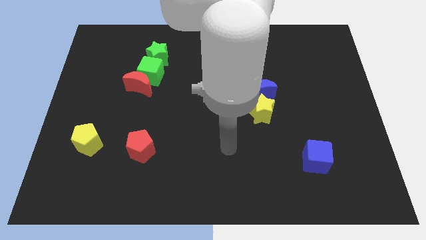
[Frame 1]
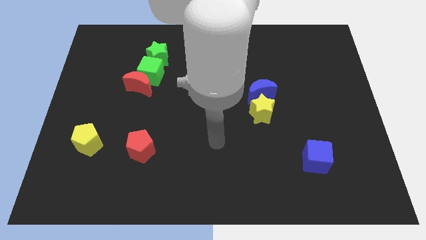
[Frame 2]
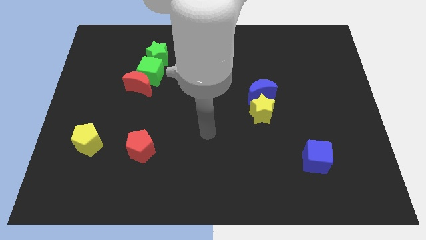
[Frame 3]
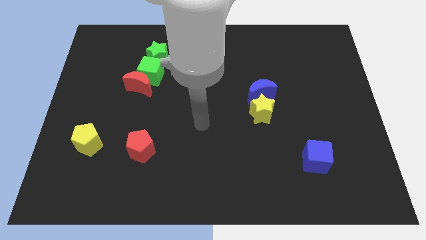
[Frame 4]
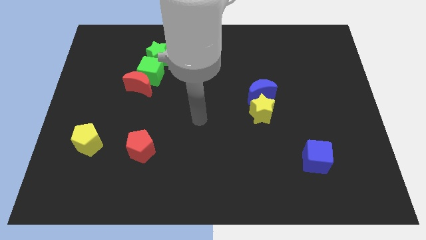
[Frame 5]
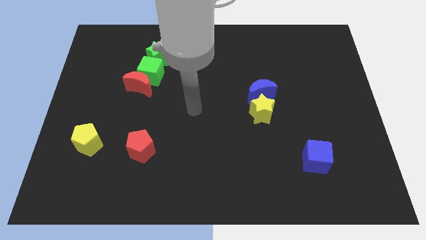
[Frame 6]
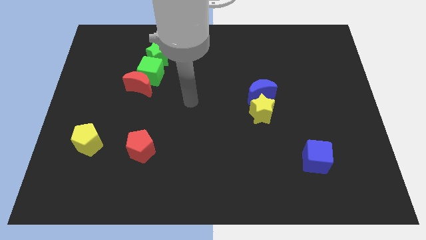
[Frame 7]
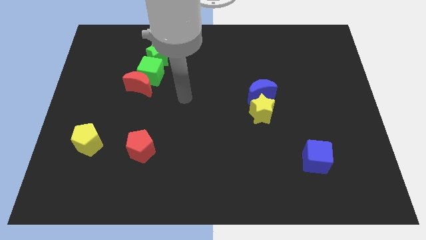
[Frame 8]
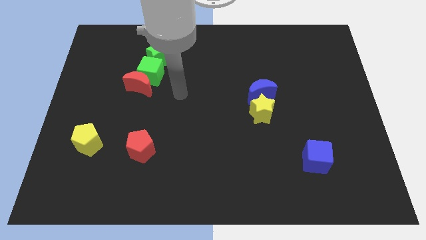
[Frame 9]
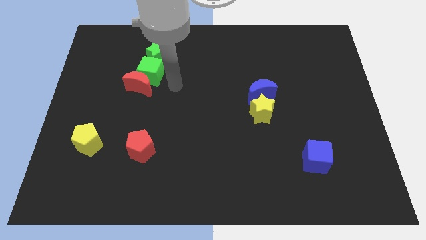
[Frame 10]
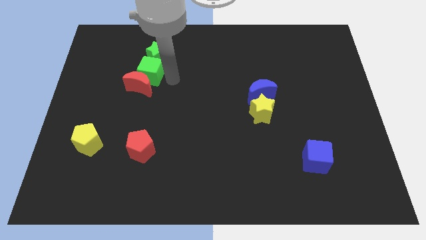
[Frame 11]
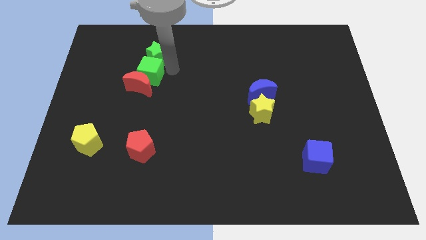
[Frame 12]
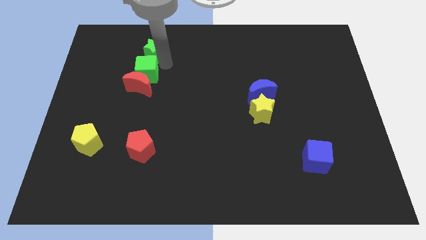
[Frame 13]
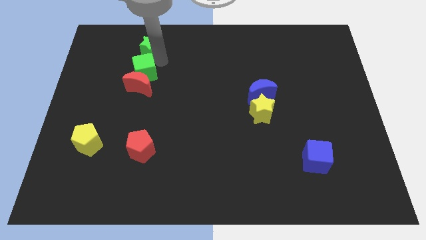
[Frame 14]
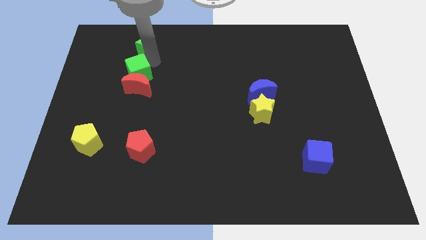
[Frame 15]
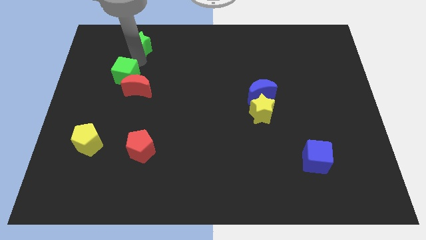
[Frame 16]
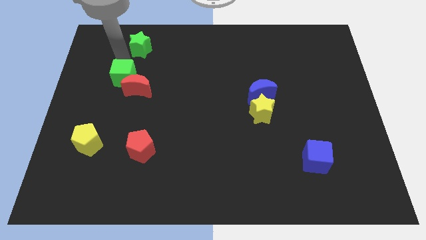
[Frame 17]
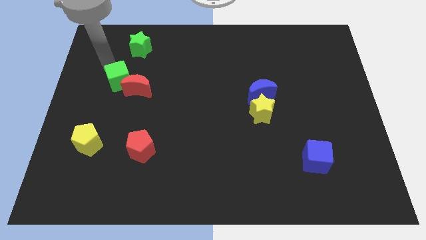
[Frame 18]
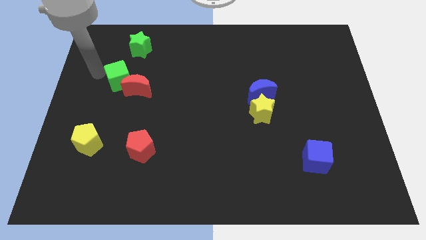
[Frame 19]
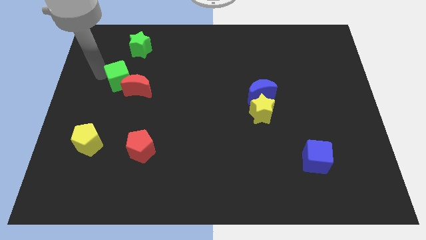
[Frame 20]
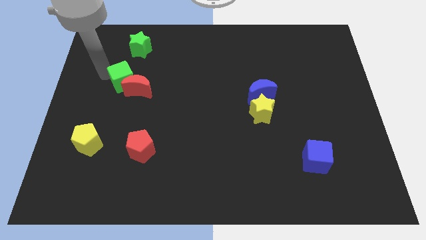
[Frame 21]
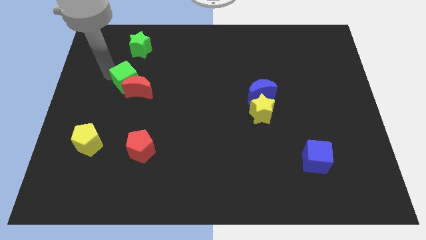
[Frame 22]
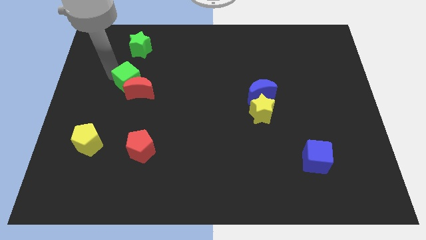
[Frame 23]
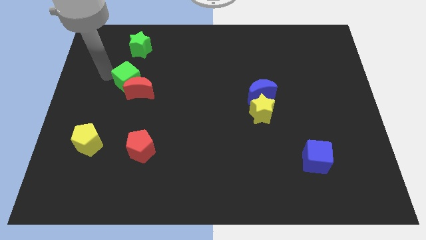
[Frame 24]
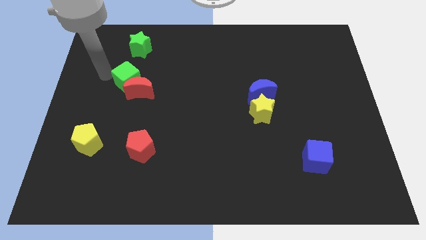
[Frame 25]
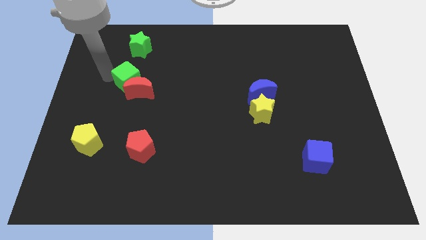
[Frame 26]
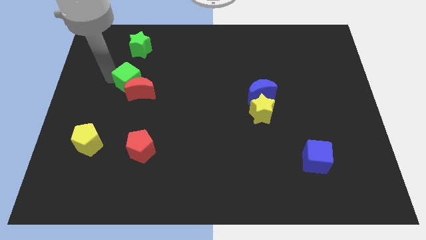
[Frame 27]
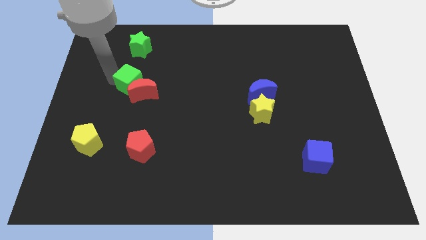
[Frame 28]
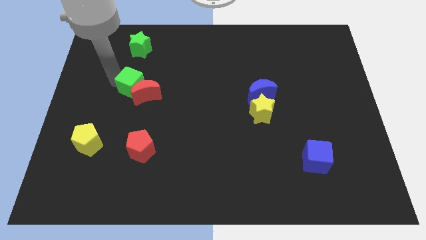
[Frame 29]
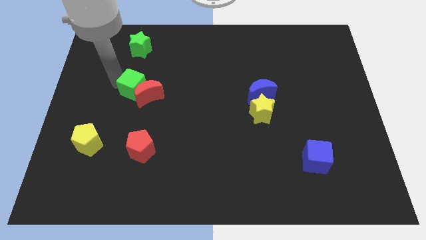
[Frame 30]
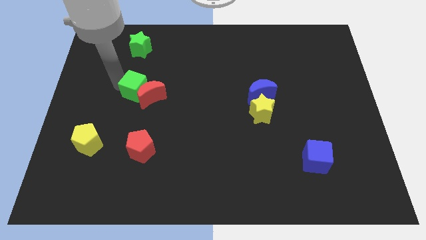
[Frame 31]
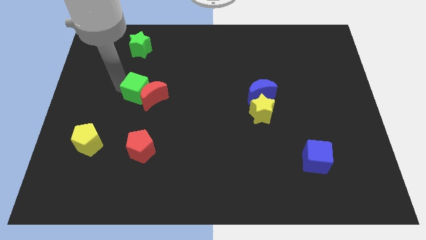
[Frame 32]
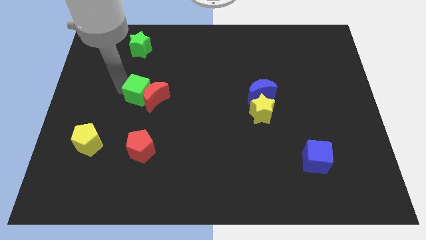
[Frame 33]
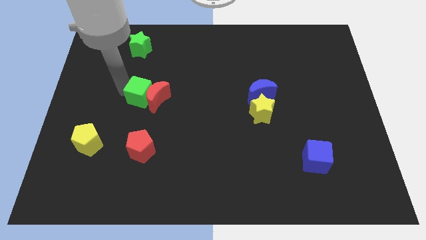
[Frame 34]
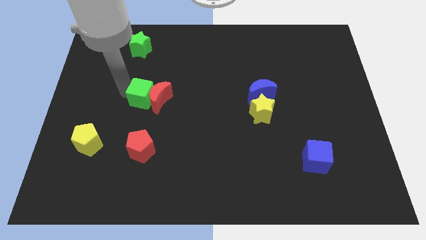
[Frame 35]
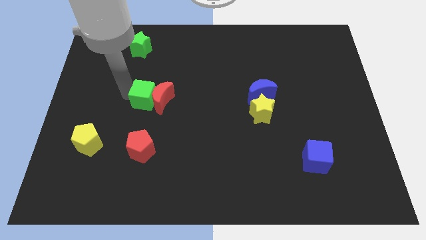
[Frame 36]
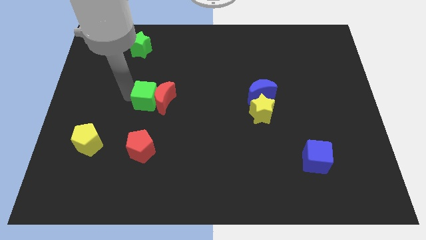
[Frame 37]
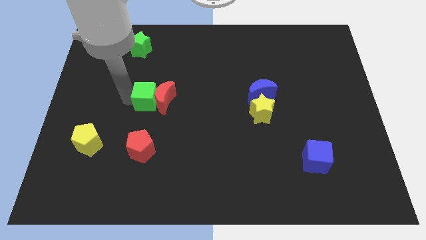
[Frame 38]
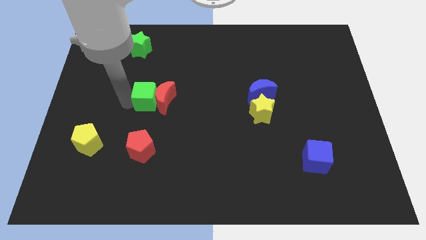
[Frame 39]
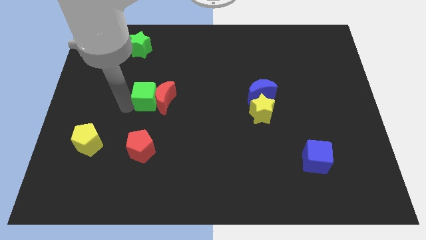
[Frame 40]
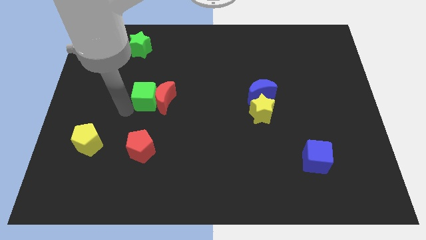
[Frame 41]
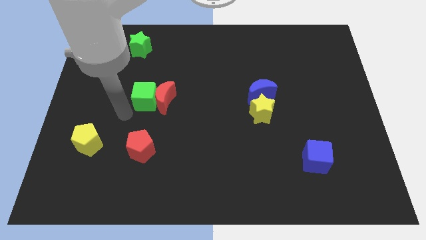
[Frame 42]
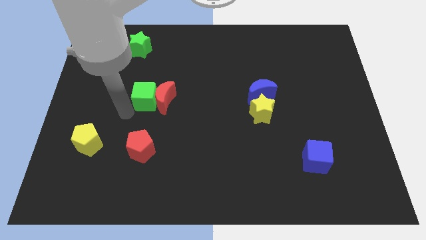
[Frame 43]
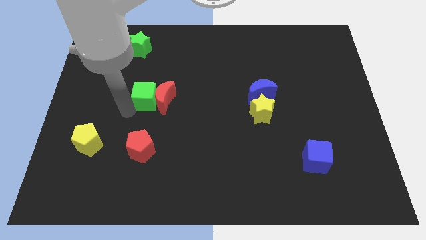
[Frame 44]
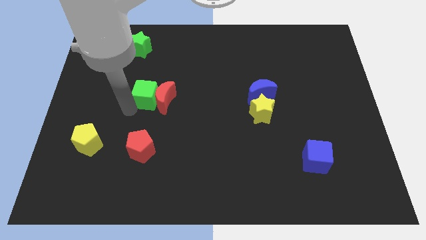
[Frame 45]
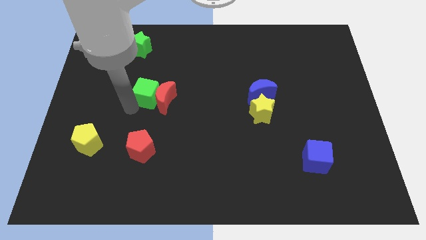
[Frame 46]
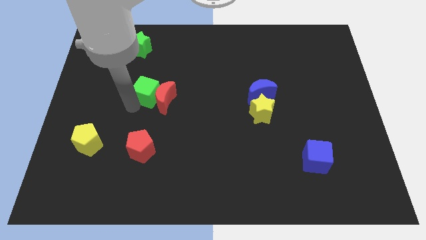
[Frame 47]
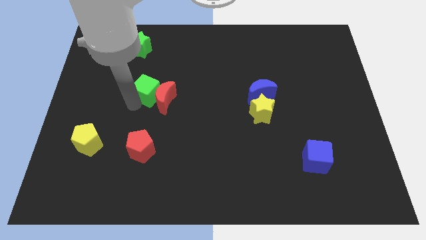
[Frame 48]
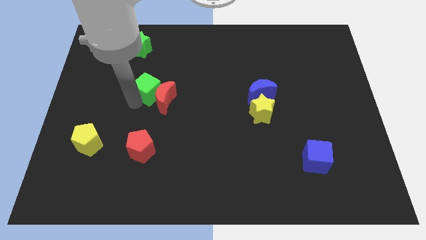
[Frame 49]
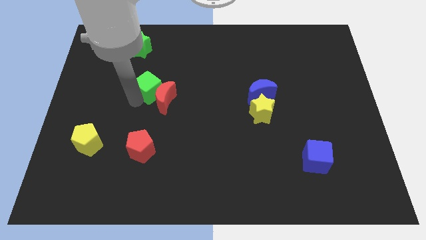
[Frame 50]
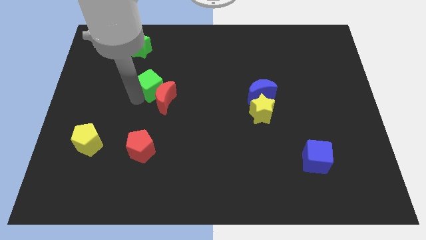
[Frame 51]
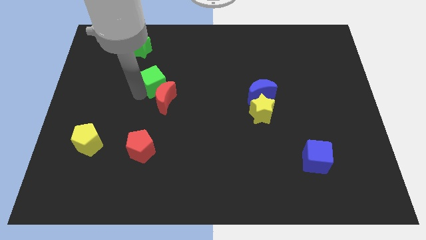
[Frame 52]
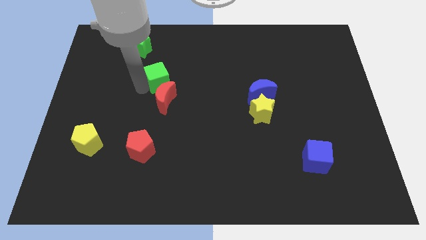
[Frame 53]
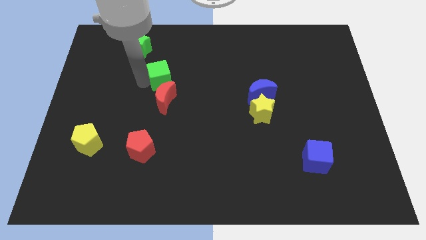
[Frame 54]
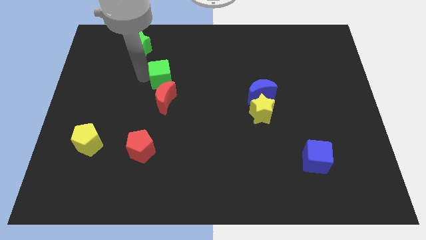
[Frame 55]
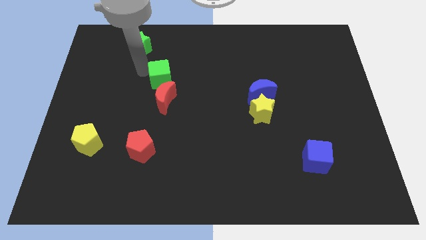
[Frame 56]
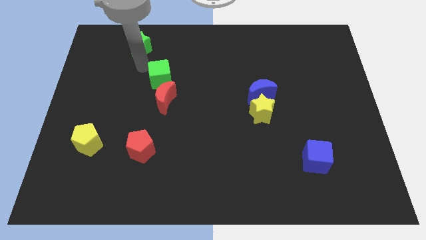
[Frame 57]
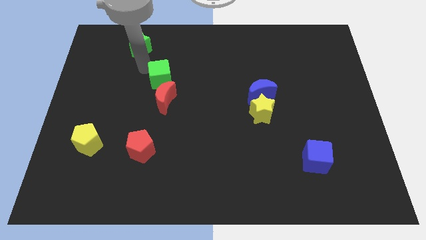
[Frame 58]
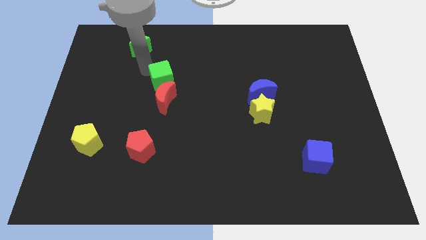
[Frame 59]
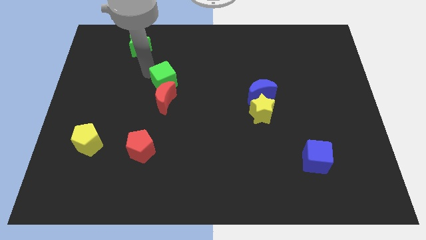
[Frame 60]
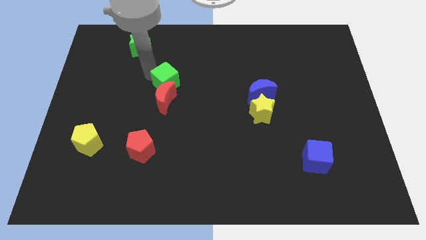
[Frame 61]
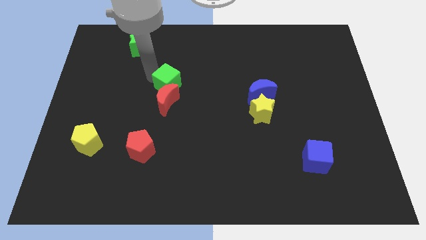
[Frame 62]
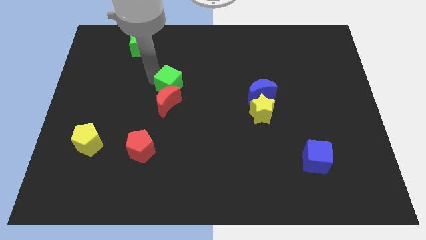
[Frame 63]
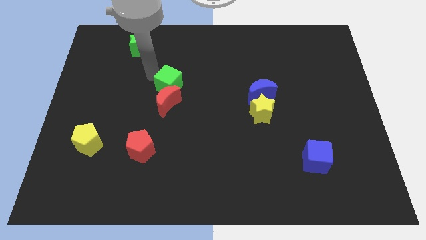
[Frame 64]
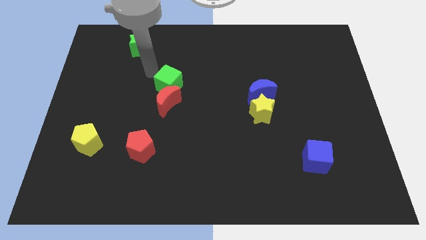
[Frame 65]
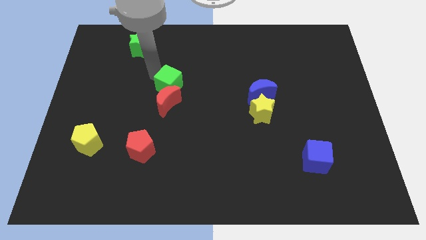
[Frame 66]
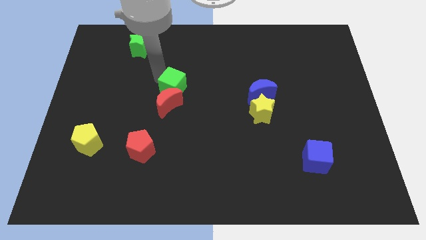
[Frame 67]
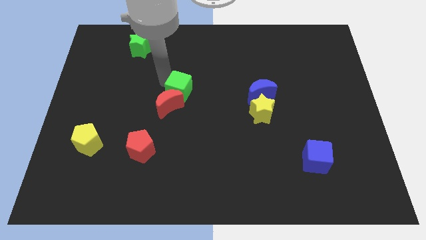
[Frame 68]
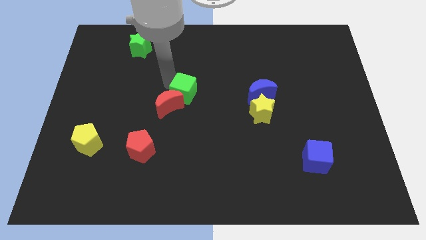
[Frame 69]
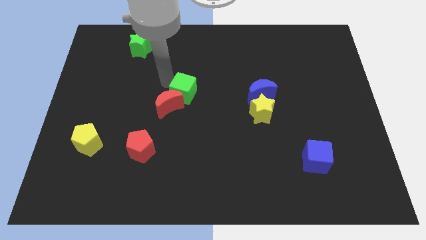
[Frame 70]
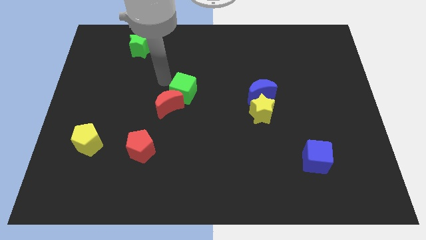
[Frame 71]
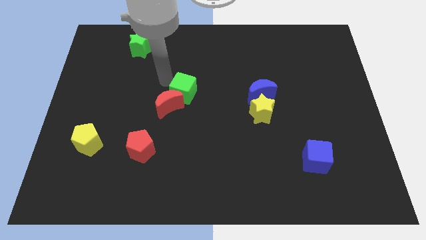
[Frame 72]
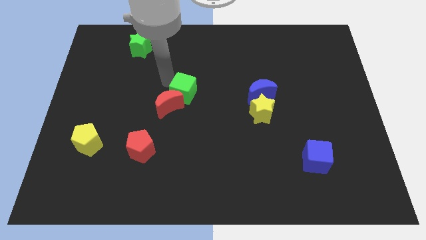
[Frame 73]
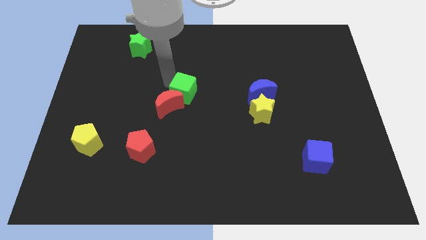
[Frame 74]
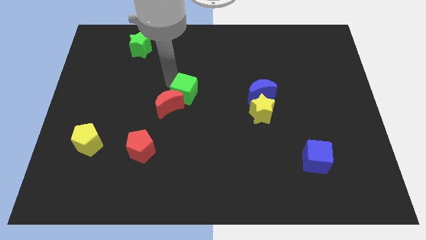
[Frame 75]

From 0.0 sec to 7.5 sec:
pull the green cube apart from the red moon and green star

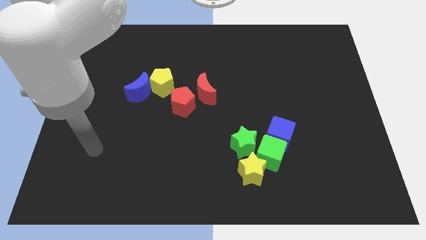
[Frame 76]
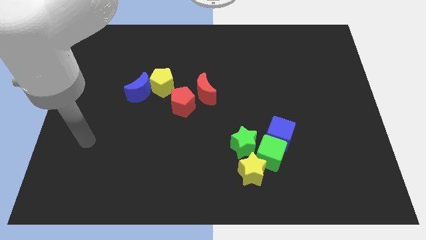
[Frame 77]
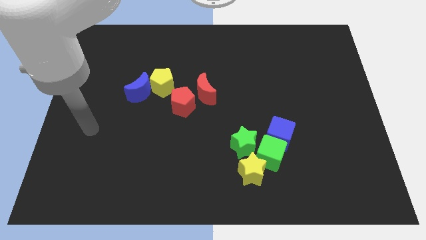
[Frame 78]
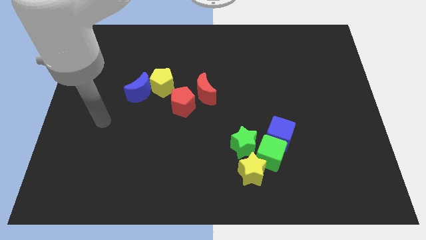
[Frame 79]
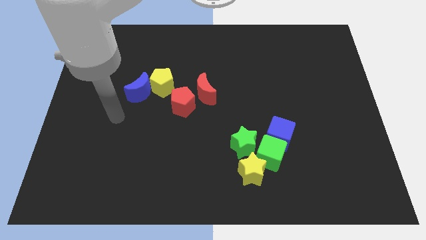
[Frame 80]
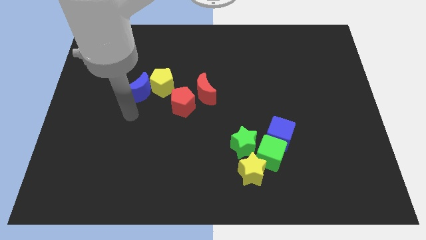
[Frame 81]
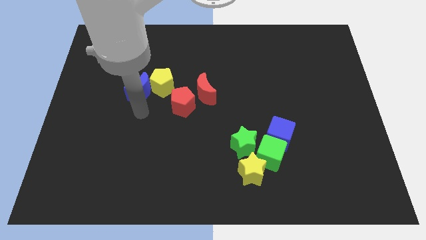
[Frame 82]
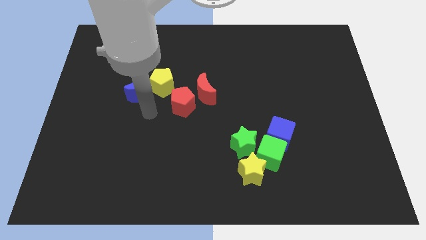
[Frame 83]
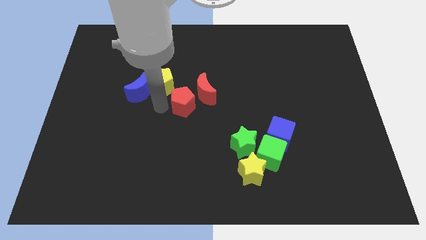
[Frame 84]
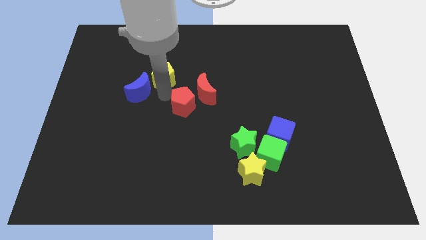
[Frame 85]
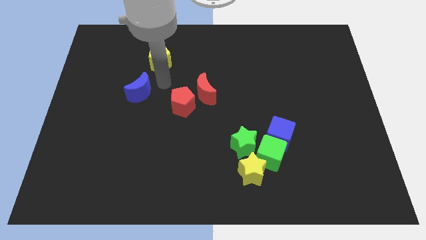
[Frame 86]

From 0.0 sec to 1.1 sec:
pull the blue moon apart from the yellow pentagon

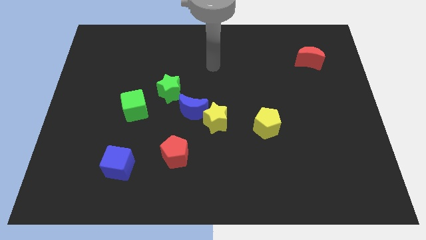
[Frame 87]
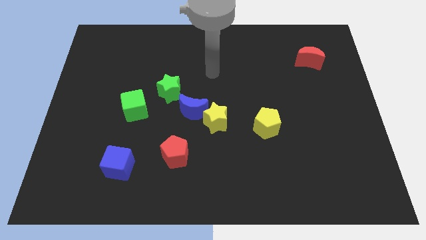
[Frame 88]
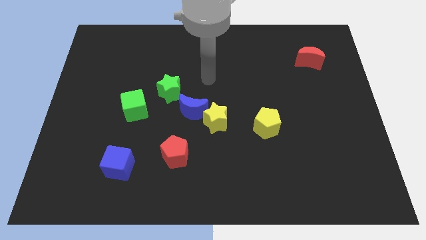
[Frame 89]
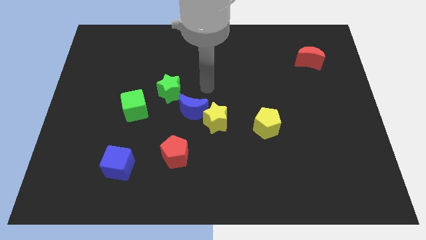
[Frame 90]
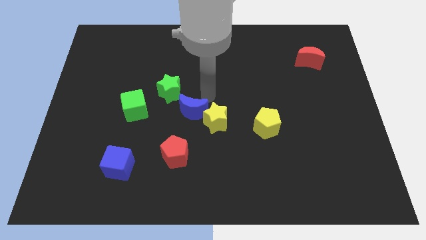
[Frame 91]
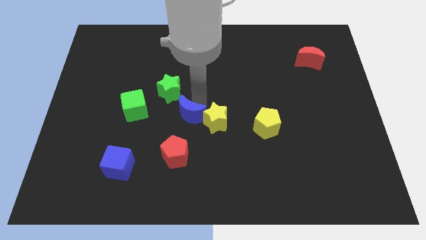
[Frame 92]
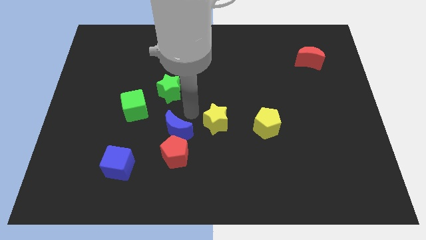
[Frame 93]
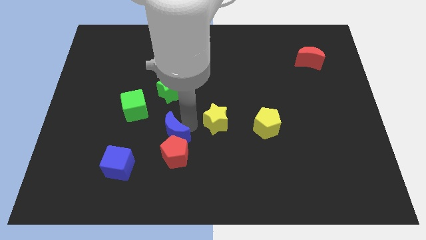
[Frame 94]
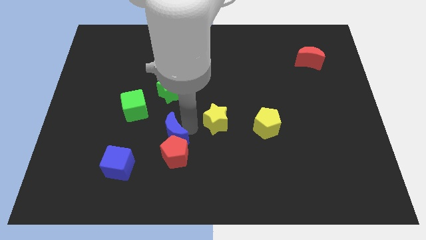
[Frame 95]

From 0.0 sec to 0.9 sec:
separate the yellow star from the blue moon
